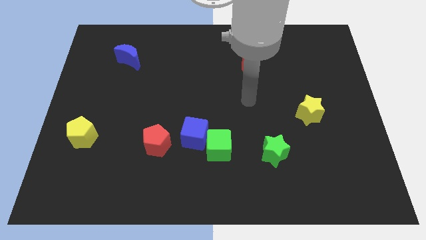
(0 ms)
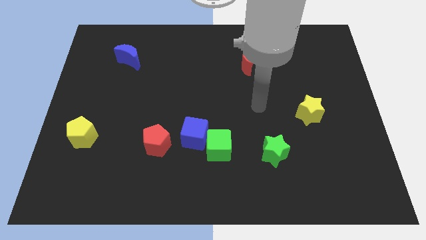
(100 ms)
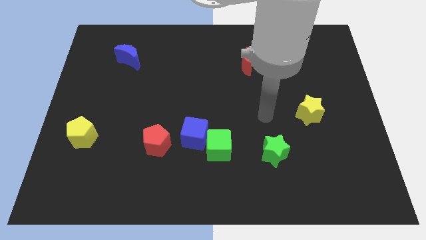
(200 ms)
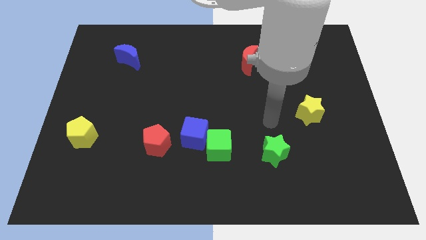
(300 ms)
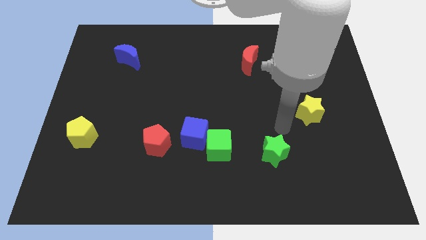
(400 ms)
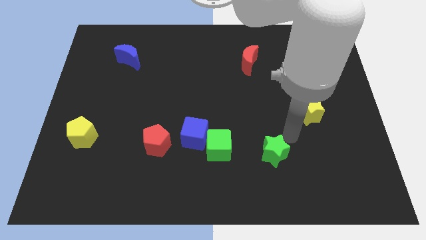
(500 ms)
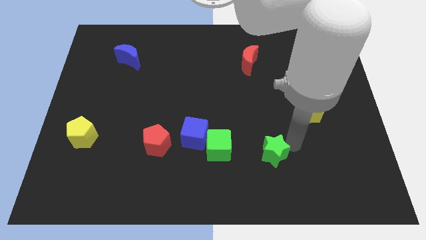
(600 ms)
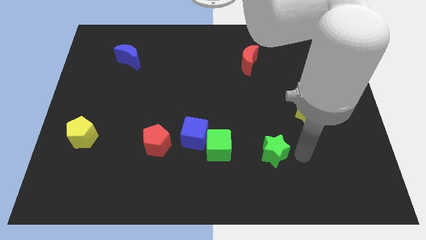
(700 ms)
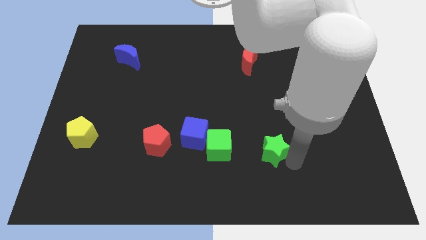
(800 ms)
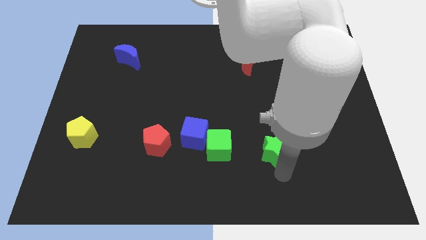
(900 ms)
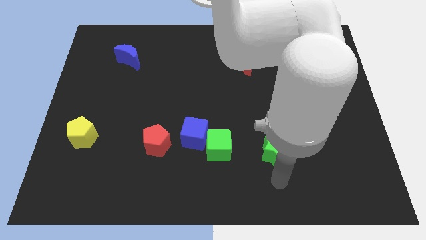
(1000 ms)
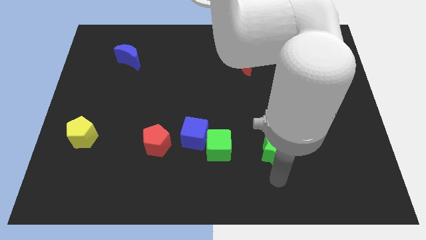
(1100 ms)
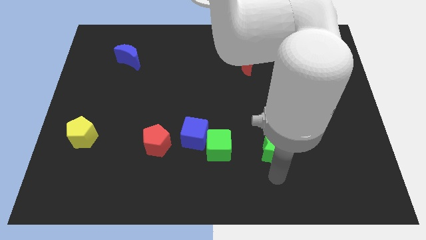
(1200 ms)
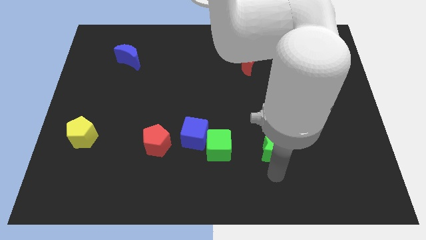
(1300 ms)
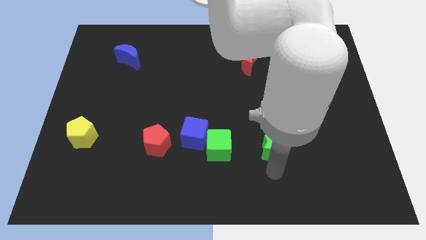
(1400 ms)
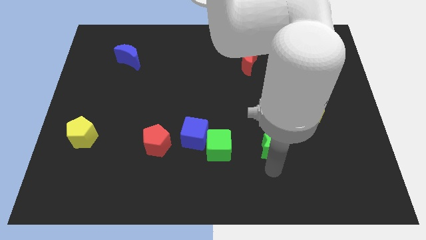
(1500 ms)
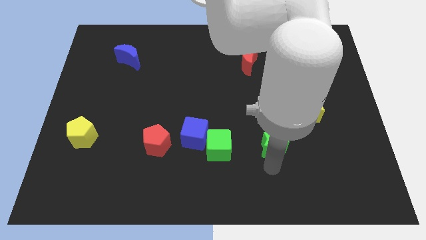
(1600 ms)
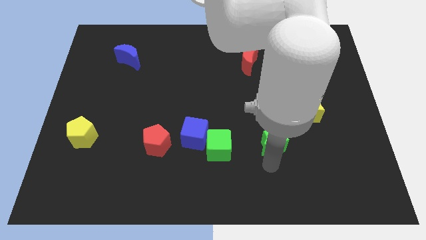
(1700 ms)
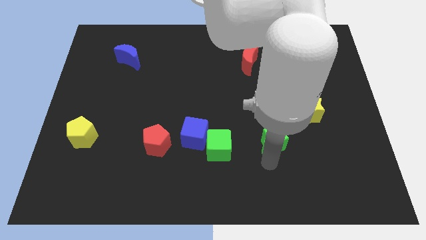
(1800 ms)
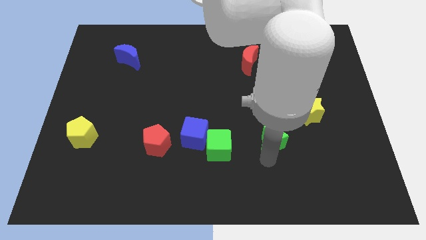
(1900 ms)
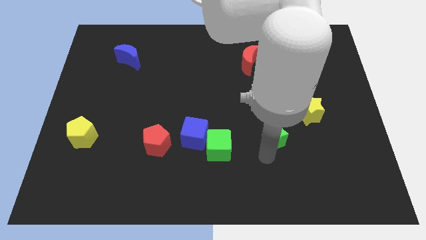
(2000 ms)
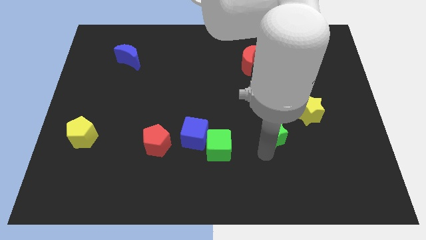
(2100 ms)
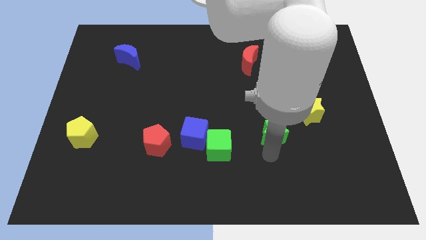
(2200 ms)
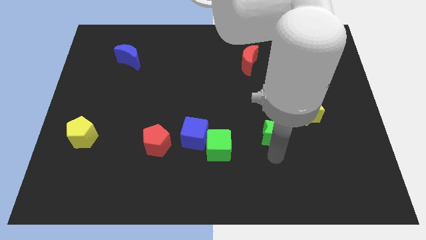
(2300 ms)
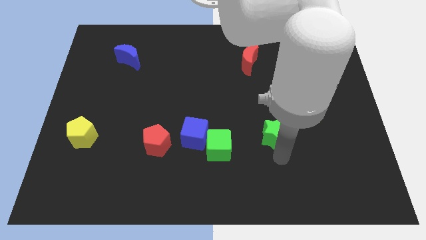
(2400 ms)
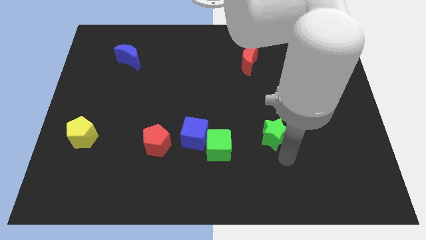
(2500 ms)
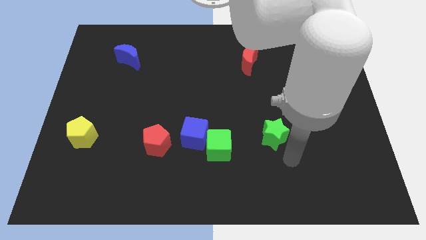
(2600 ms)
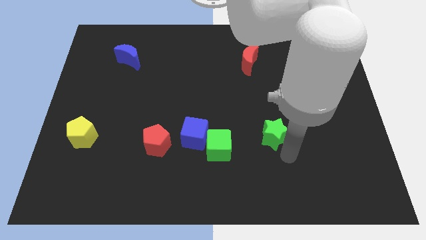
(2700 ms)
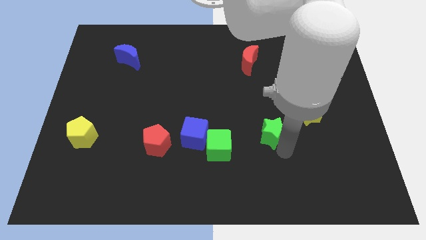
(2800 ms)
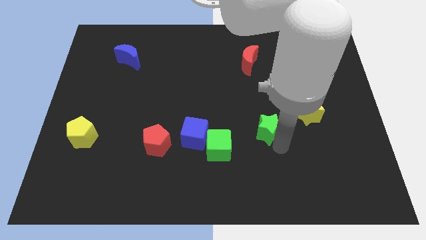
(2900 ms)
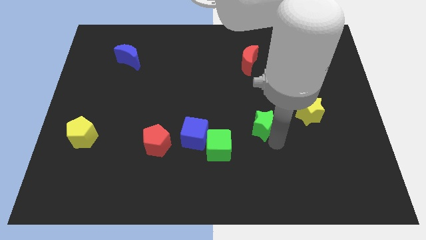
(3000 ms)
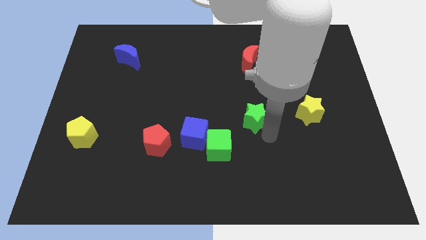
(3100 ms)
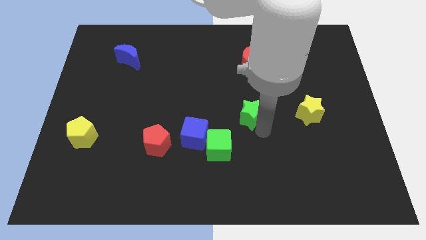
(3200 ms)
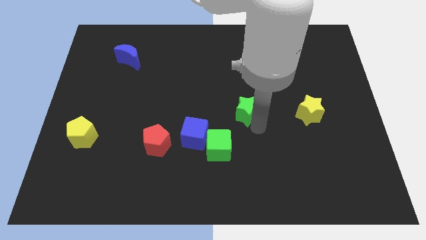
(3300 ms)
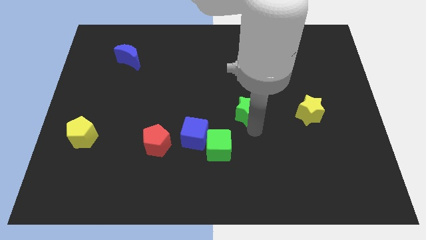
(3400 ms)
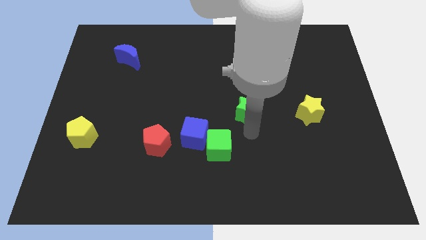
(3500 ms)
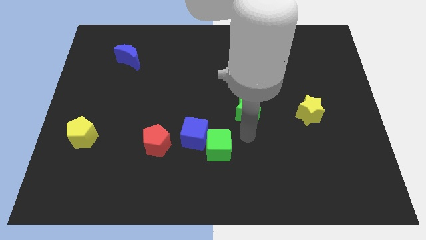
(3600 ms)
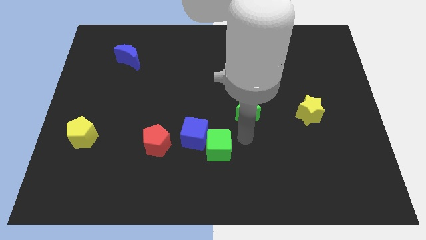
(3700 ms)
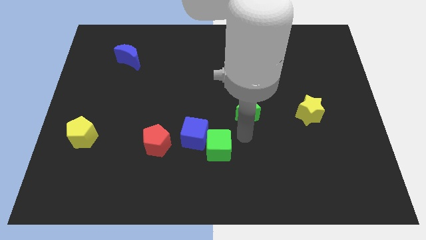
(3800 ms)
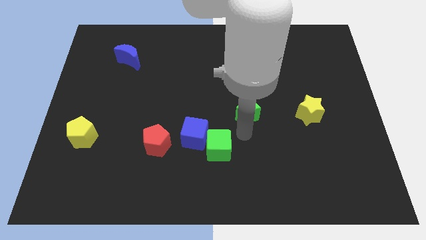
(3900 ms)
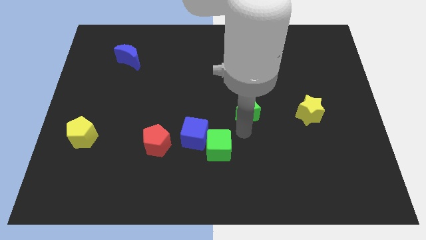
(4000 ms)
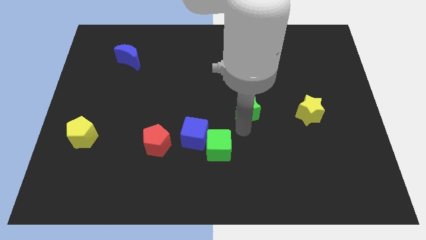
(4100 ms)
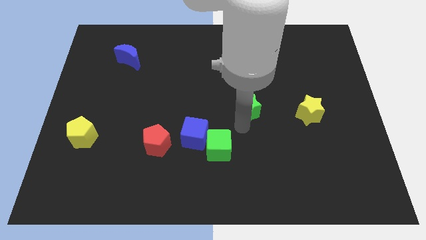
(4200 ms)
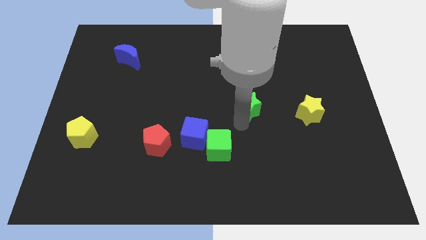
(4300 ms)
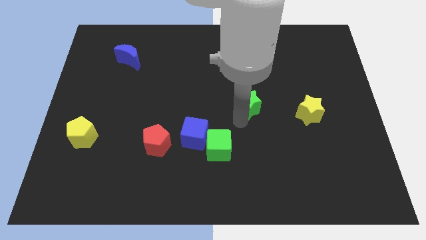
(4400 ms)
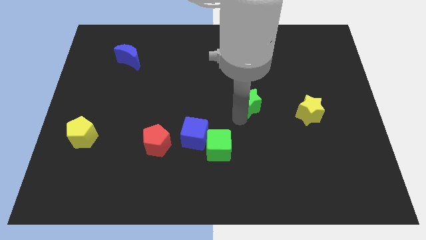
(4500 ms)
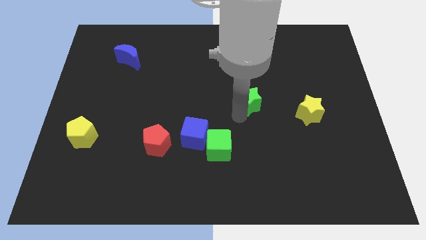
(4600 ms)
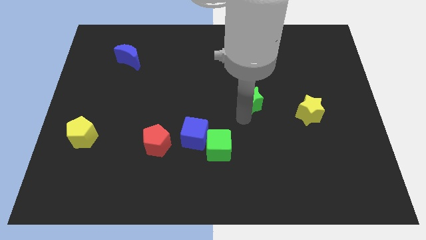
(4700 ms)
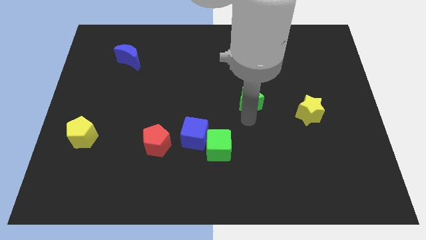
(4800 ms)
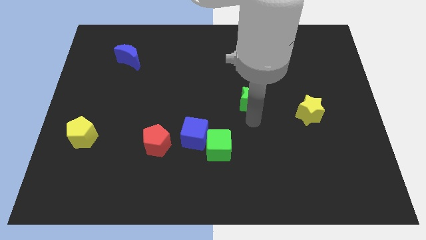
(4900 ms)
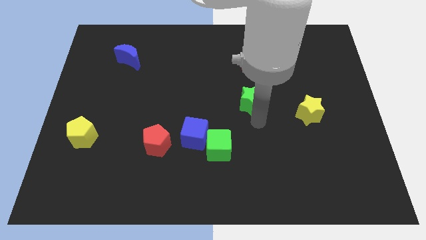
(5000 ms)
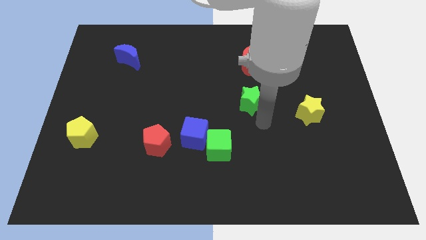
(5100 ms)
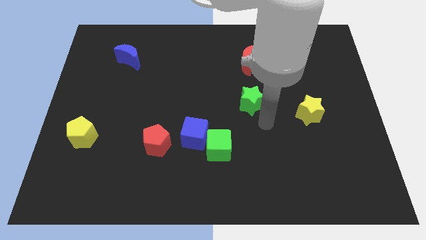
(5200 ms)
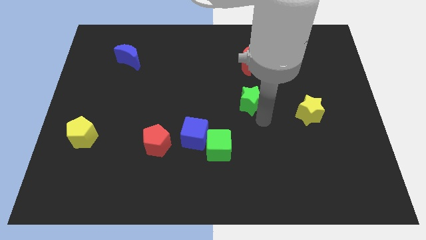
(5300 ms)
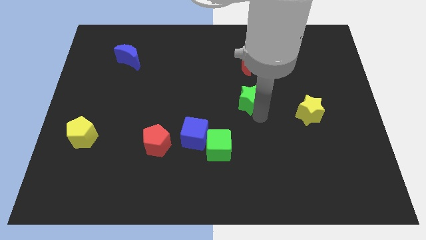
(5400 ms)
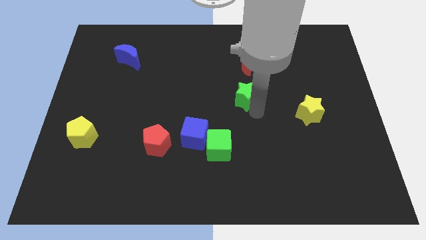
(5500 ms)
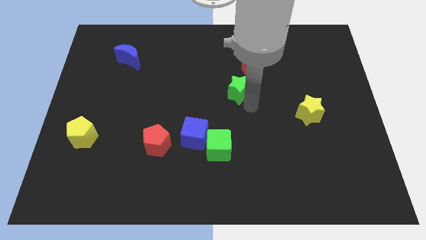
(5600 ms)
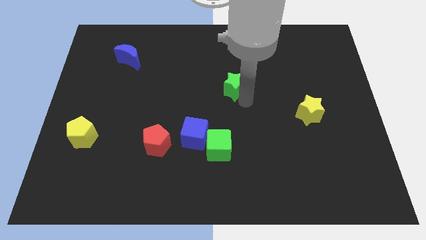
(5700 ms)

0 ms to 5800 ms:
push the green star to the bottom left side of the red moon

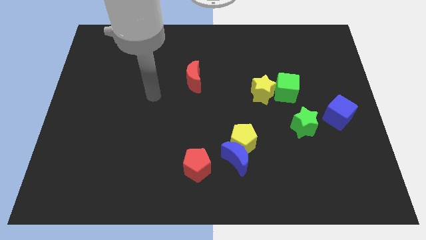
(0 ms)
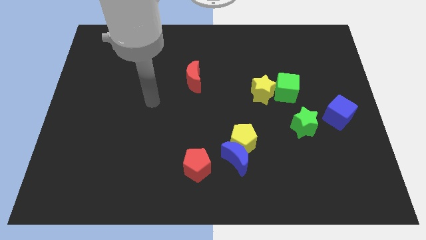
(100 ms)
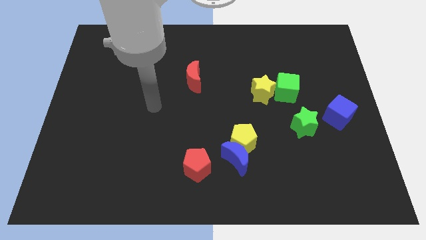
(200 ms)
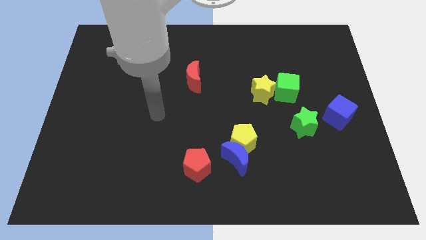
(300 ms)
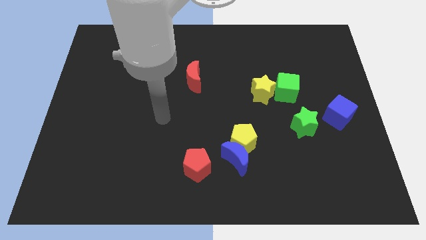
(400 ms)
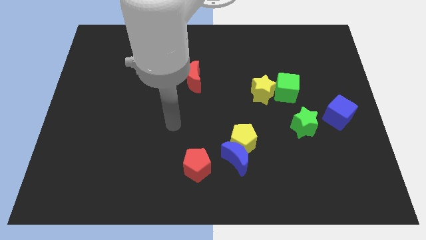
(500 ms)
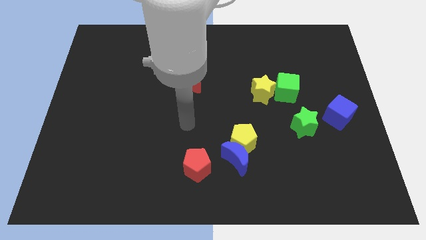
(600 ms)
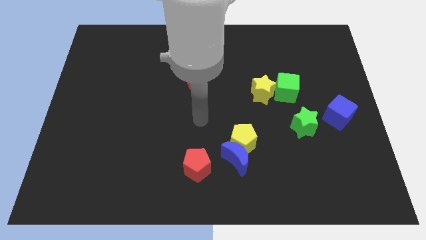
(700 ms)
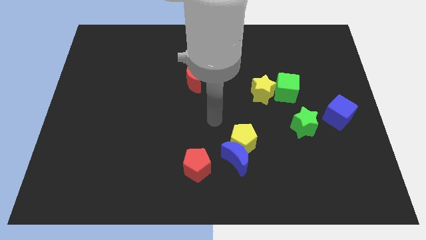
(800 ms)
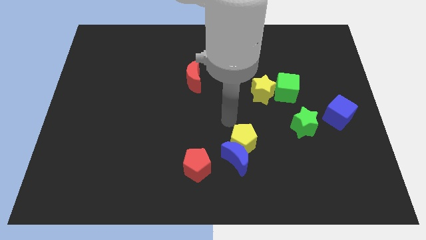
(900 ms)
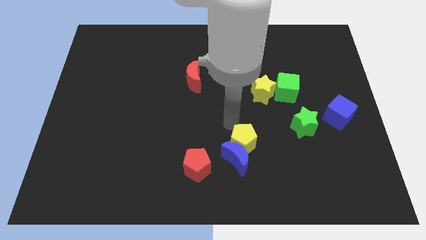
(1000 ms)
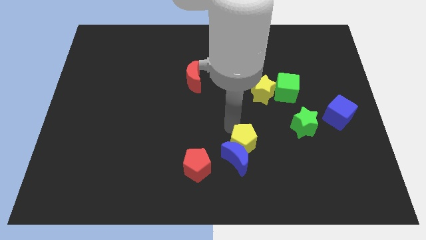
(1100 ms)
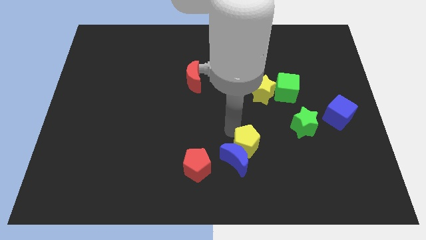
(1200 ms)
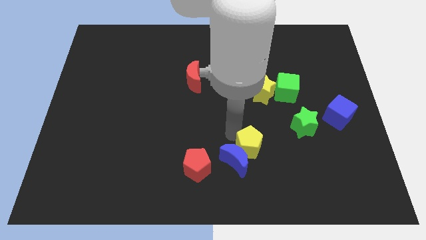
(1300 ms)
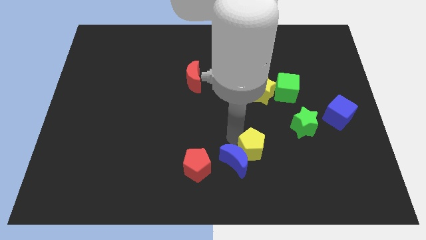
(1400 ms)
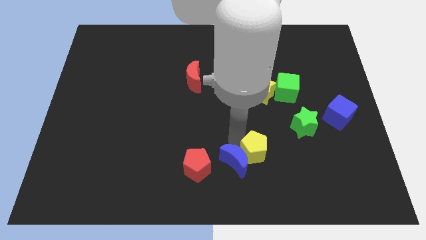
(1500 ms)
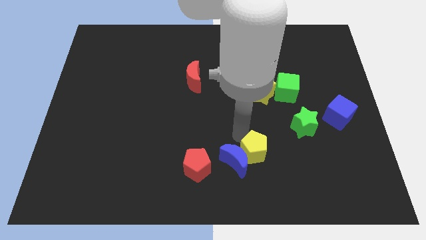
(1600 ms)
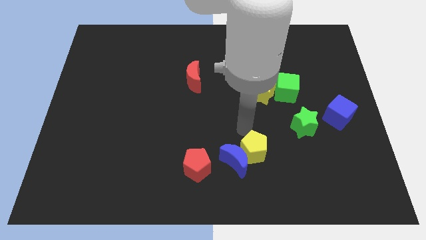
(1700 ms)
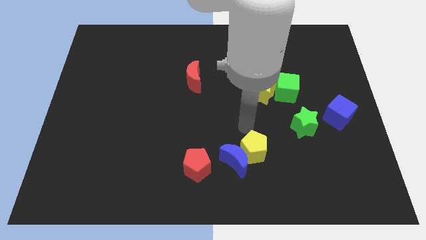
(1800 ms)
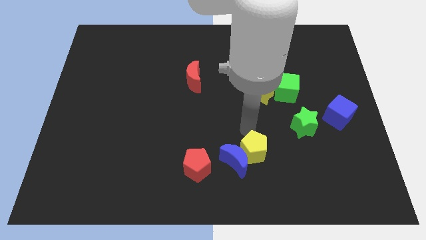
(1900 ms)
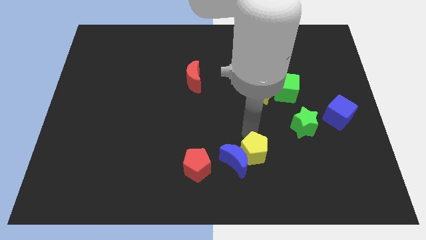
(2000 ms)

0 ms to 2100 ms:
move the yellow pentagon to the bottom right of the blue moon
